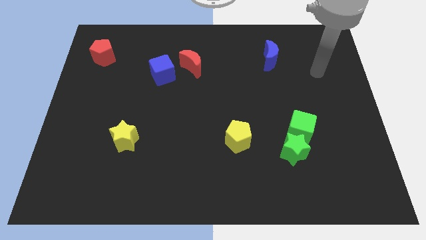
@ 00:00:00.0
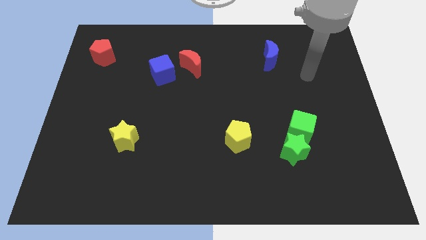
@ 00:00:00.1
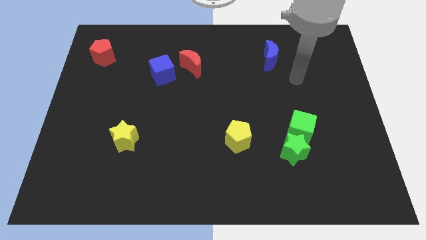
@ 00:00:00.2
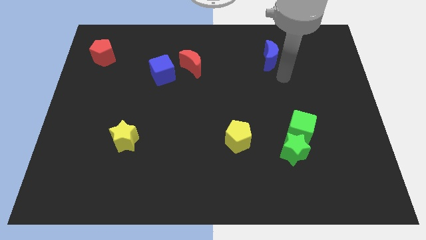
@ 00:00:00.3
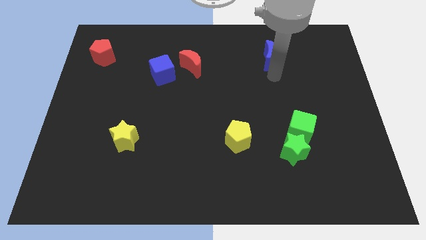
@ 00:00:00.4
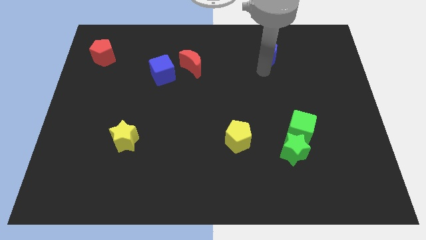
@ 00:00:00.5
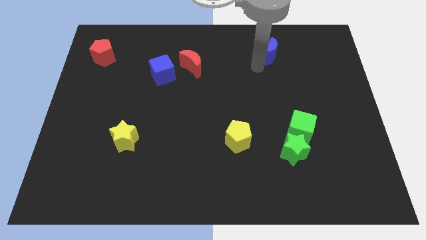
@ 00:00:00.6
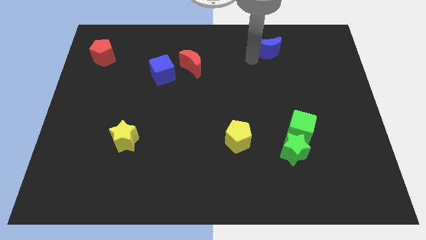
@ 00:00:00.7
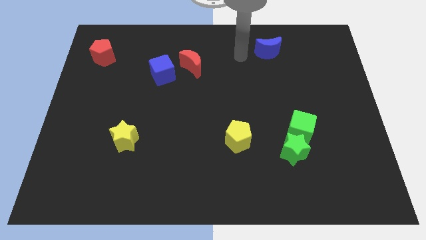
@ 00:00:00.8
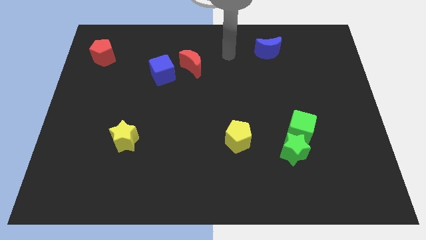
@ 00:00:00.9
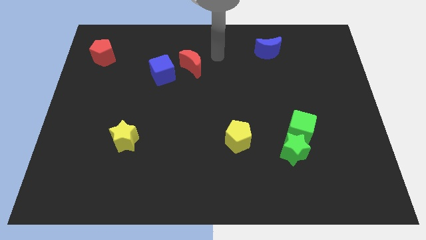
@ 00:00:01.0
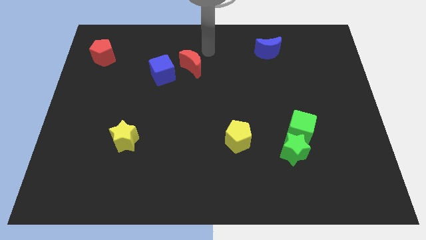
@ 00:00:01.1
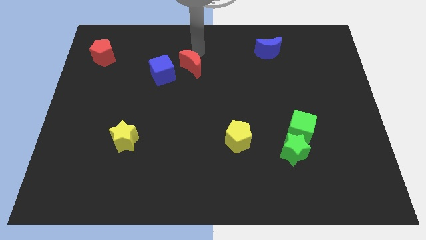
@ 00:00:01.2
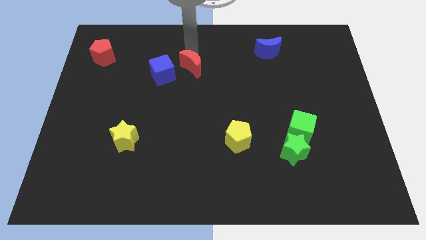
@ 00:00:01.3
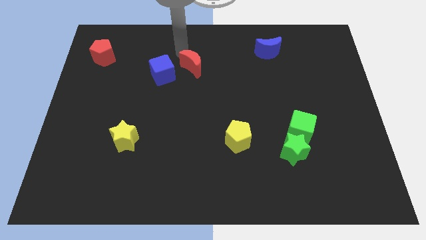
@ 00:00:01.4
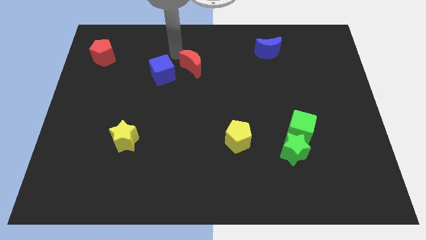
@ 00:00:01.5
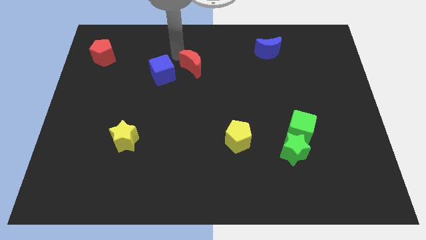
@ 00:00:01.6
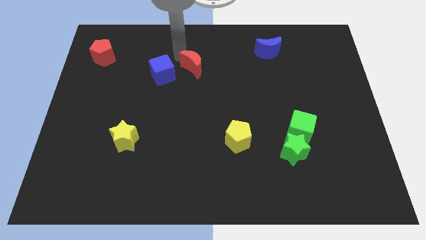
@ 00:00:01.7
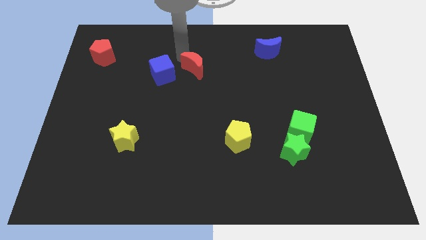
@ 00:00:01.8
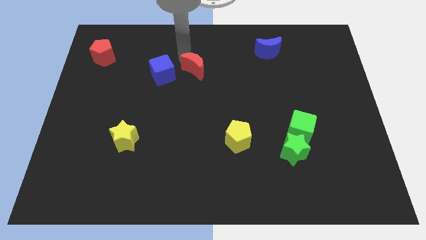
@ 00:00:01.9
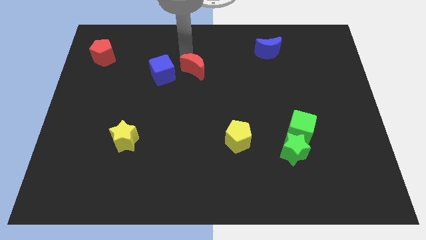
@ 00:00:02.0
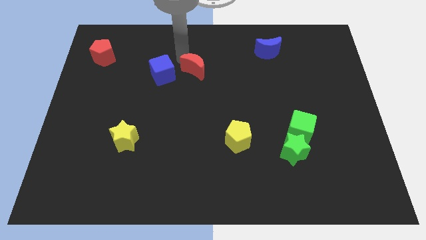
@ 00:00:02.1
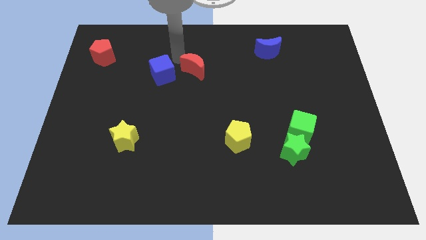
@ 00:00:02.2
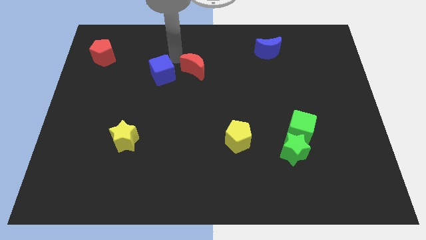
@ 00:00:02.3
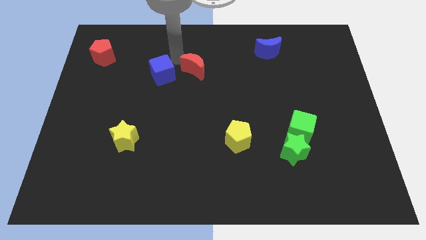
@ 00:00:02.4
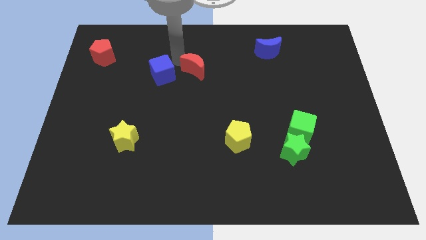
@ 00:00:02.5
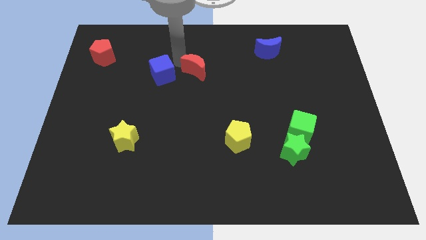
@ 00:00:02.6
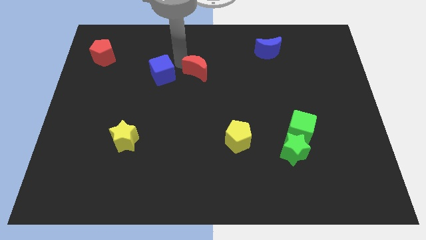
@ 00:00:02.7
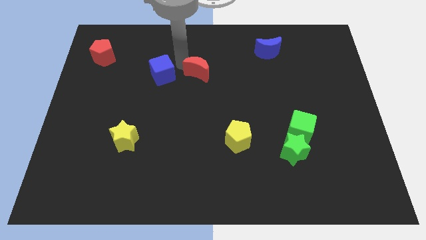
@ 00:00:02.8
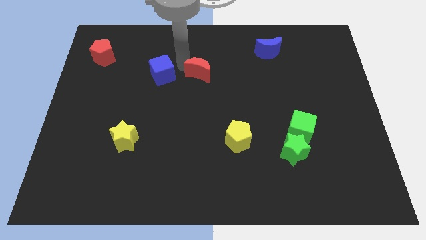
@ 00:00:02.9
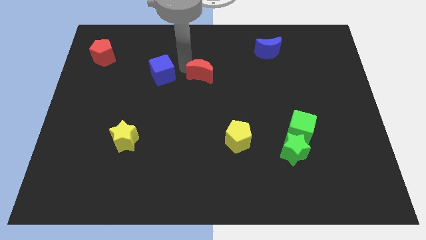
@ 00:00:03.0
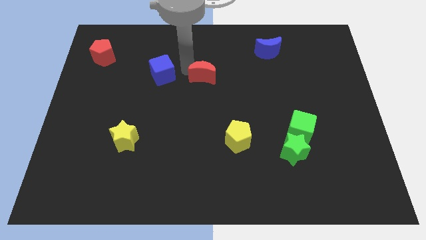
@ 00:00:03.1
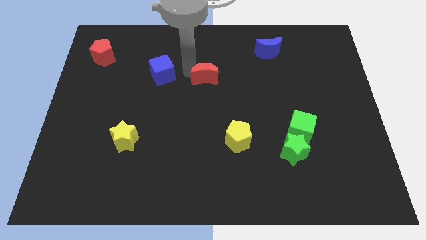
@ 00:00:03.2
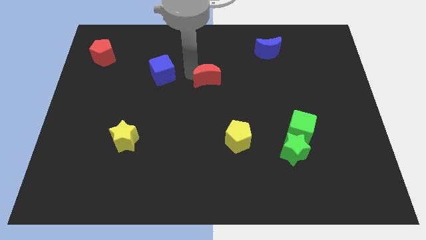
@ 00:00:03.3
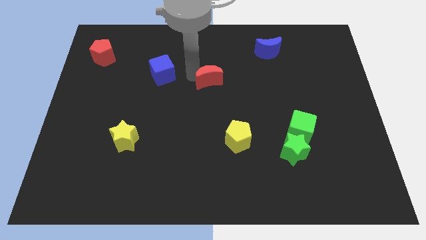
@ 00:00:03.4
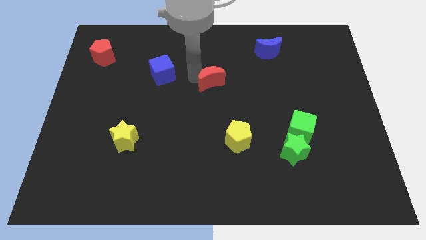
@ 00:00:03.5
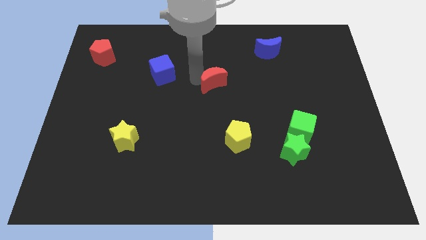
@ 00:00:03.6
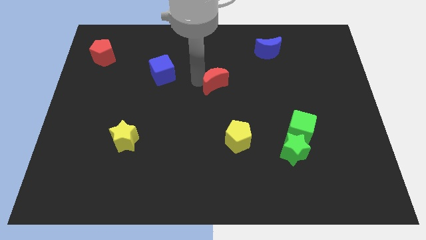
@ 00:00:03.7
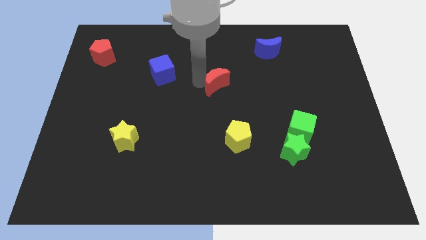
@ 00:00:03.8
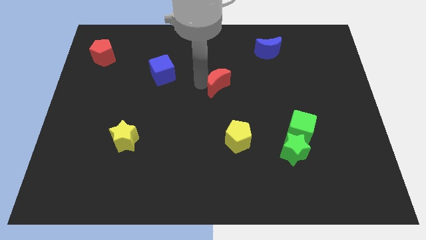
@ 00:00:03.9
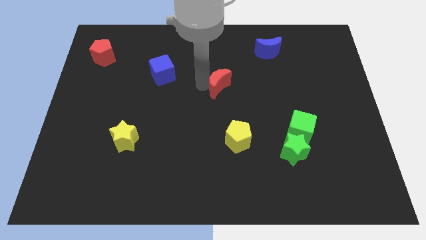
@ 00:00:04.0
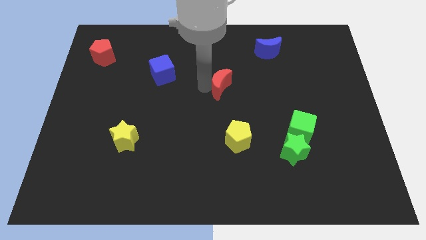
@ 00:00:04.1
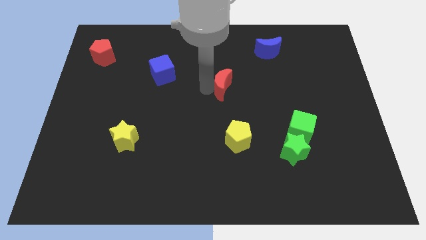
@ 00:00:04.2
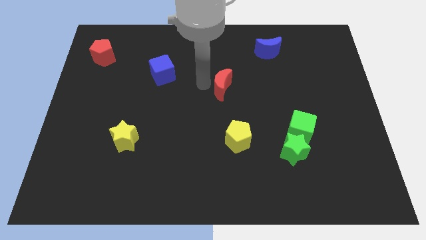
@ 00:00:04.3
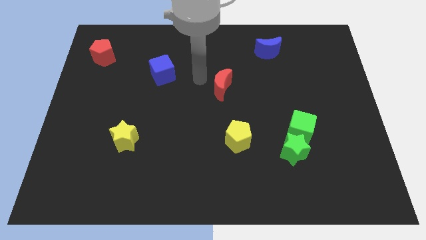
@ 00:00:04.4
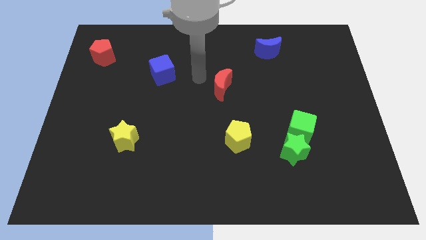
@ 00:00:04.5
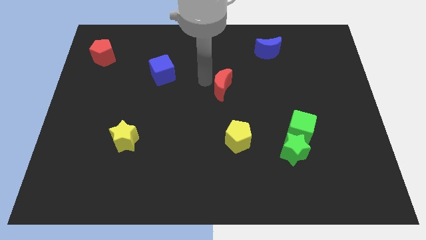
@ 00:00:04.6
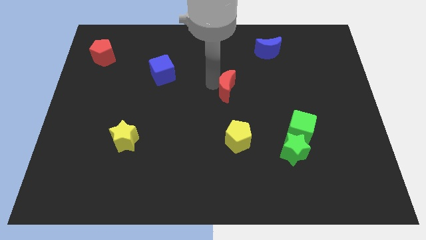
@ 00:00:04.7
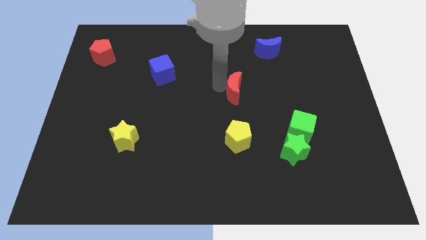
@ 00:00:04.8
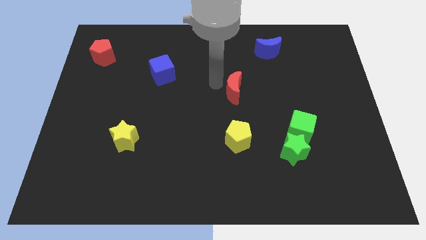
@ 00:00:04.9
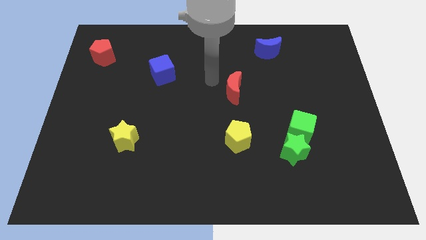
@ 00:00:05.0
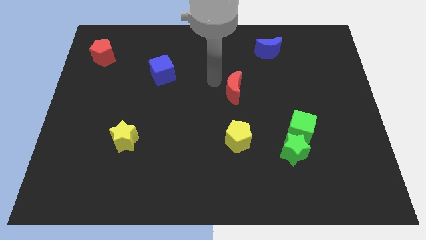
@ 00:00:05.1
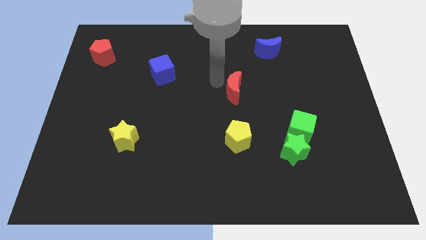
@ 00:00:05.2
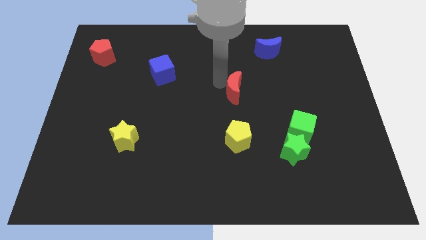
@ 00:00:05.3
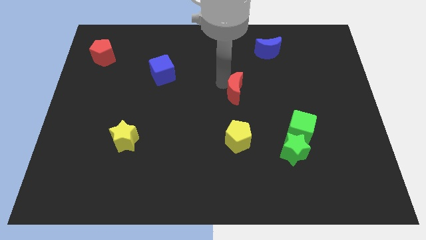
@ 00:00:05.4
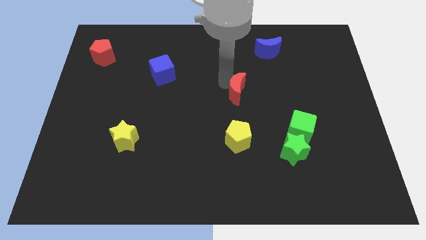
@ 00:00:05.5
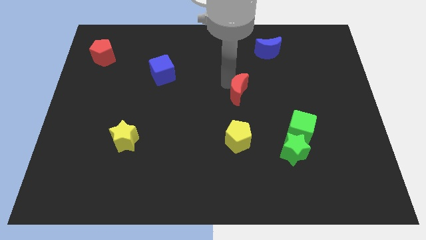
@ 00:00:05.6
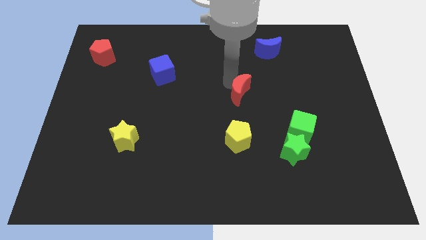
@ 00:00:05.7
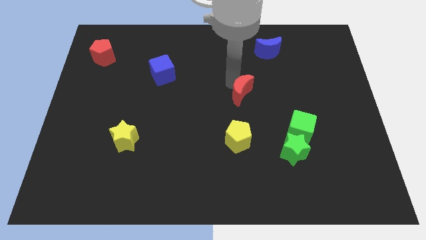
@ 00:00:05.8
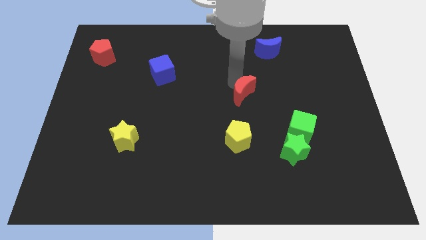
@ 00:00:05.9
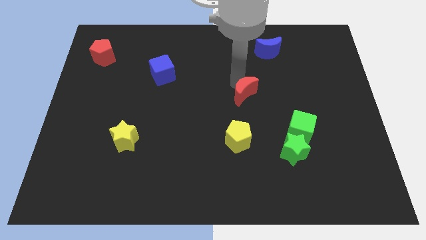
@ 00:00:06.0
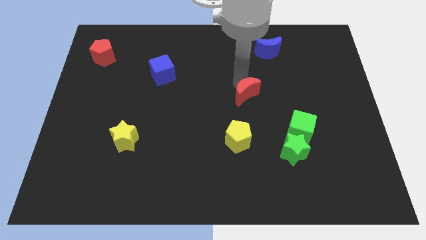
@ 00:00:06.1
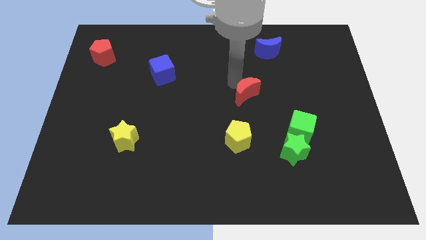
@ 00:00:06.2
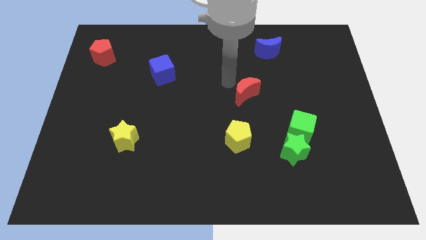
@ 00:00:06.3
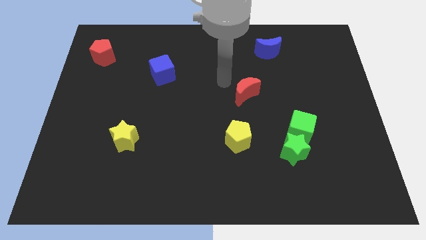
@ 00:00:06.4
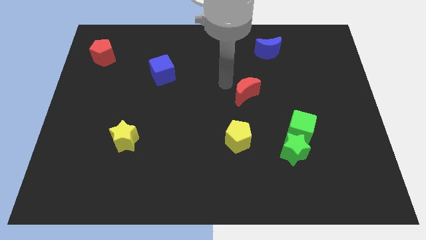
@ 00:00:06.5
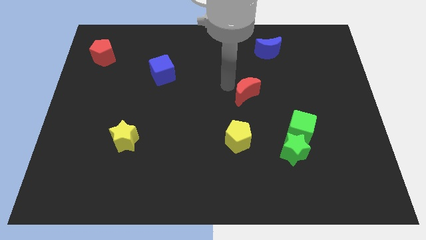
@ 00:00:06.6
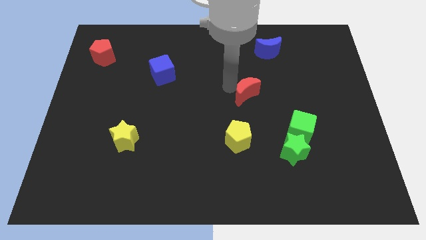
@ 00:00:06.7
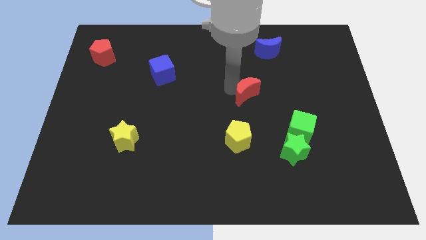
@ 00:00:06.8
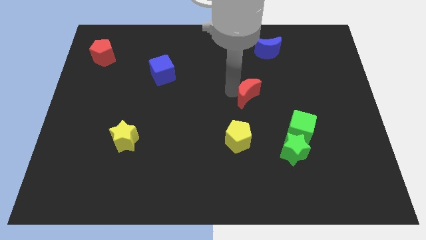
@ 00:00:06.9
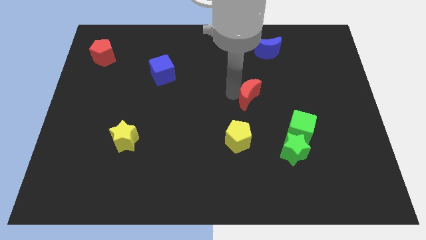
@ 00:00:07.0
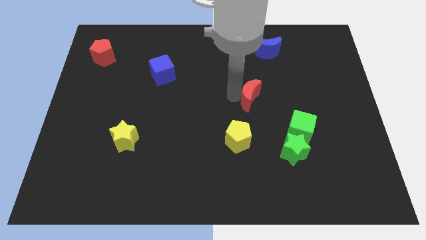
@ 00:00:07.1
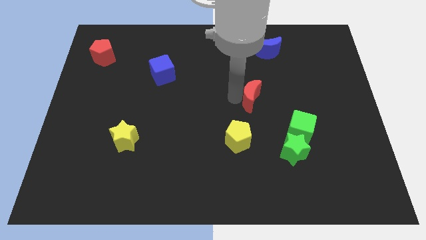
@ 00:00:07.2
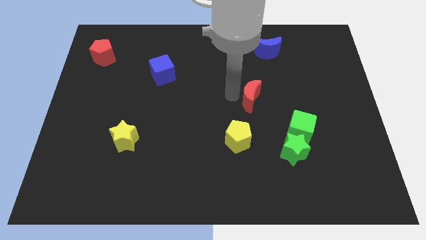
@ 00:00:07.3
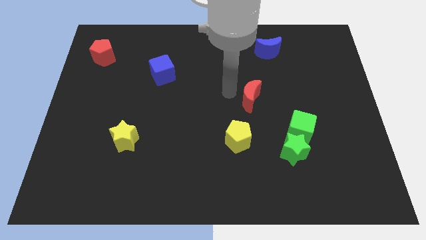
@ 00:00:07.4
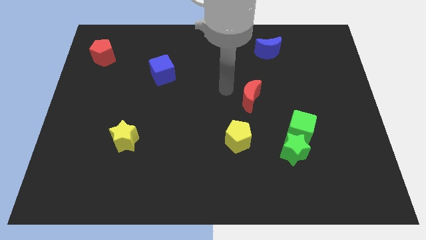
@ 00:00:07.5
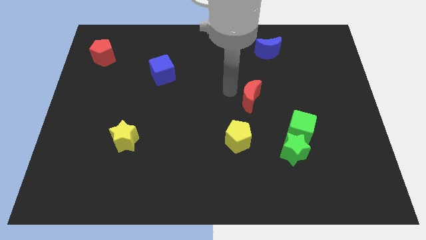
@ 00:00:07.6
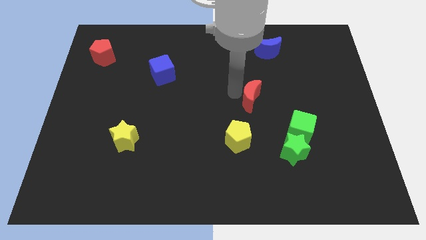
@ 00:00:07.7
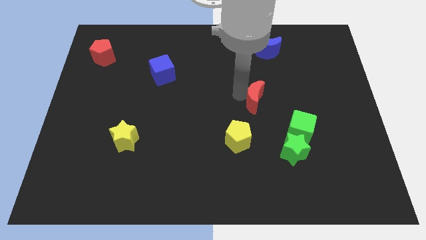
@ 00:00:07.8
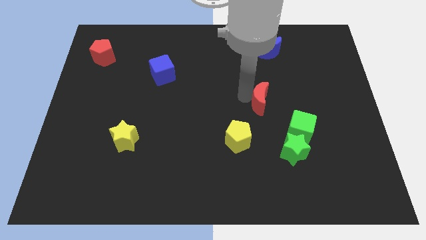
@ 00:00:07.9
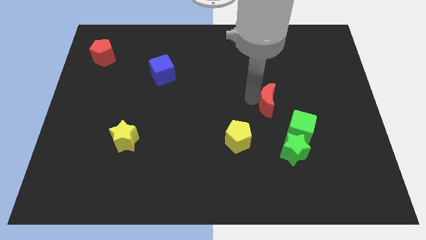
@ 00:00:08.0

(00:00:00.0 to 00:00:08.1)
put the red moon to the top side of the green star
